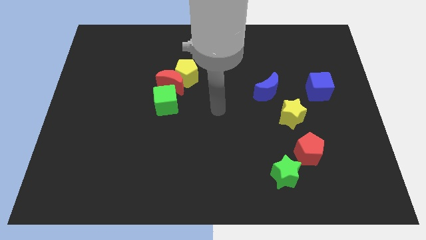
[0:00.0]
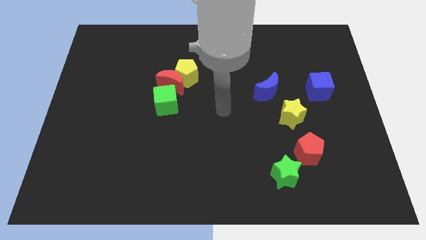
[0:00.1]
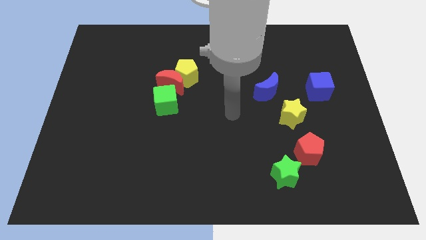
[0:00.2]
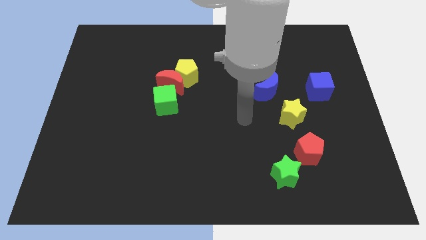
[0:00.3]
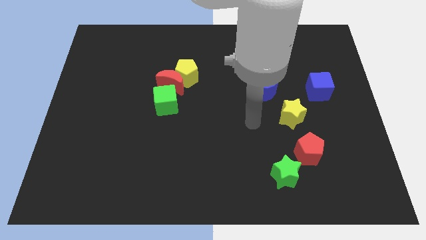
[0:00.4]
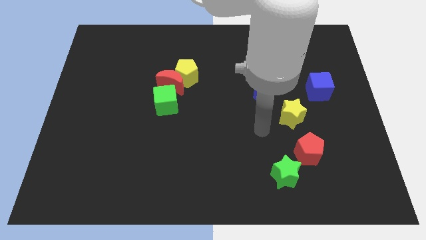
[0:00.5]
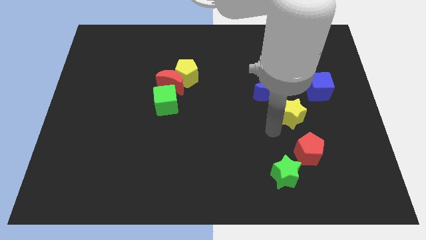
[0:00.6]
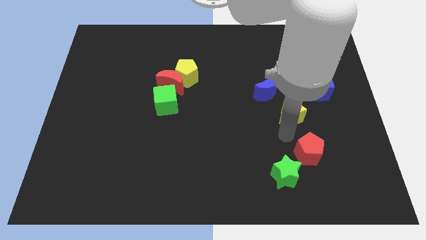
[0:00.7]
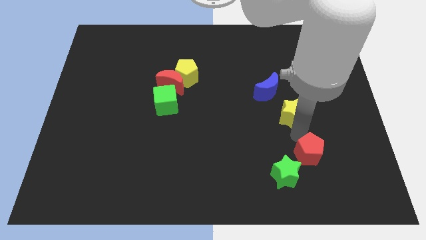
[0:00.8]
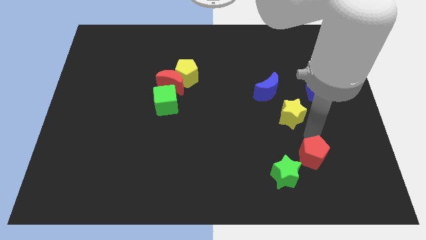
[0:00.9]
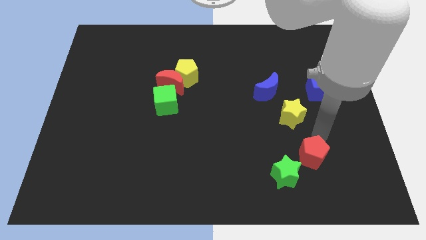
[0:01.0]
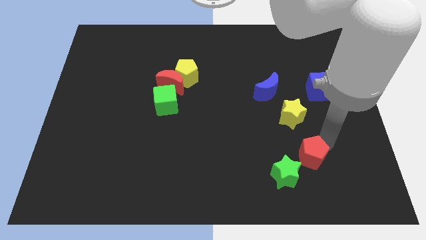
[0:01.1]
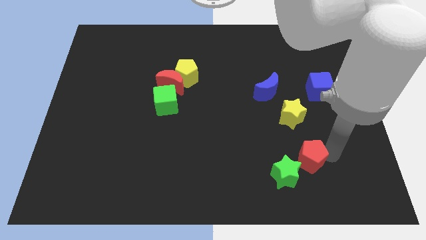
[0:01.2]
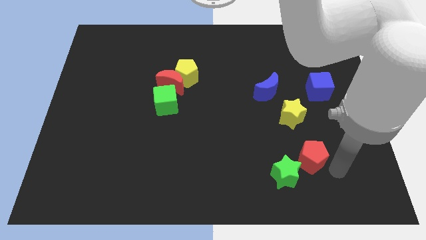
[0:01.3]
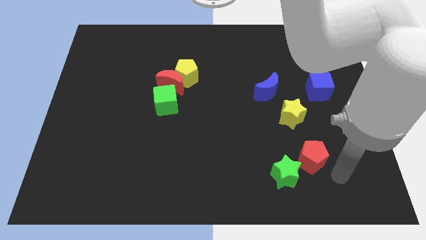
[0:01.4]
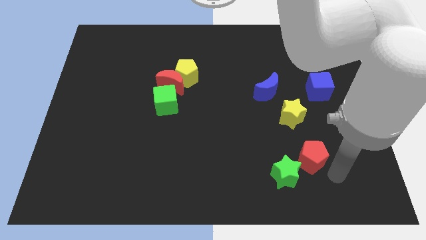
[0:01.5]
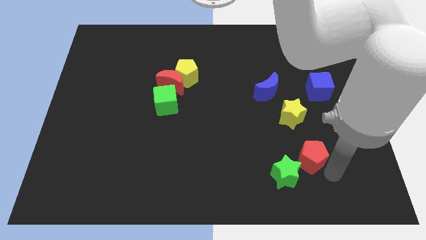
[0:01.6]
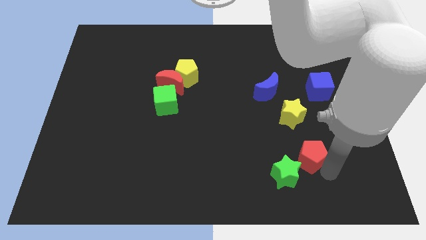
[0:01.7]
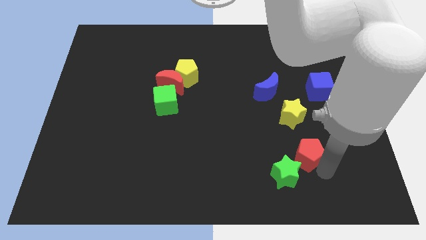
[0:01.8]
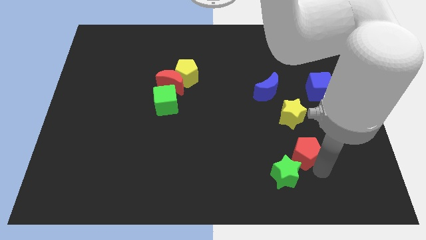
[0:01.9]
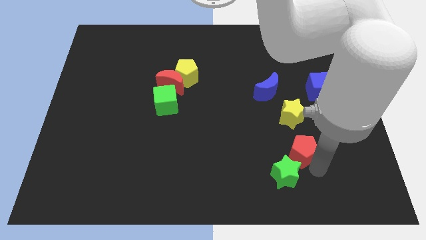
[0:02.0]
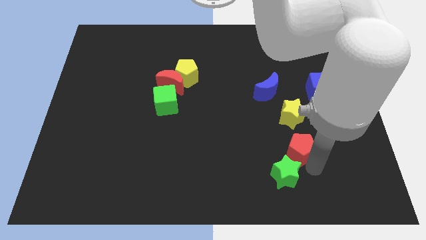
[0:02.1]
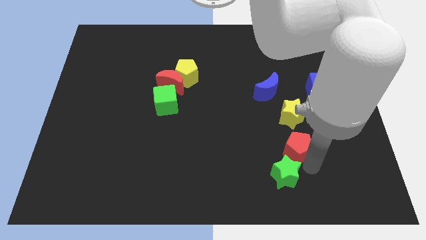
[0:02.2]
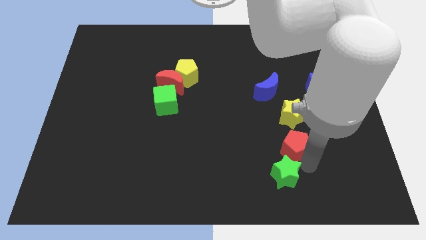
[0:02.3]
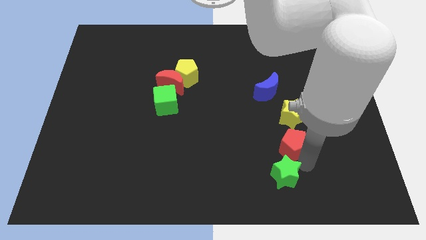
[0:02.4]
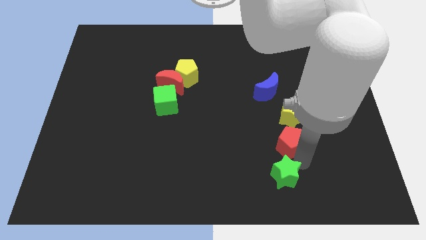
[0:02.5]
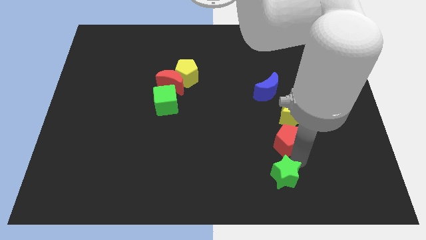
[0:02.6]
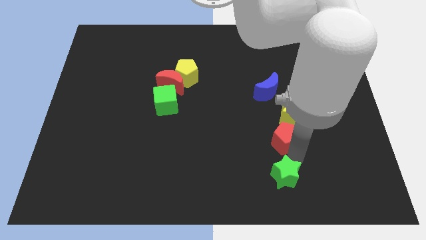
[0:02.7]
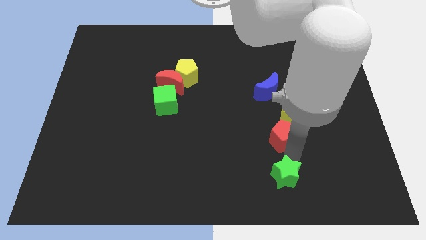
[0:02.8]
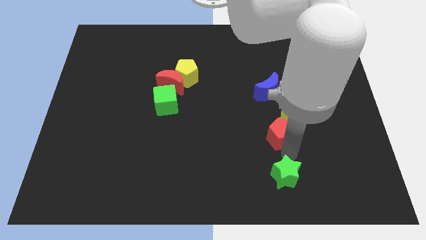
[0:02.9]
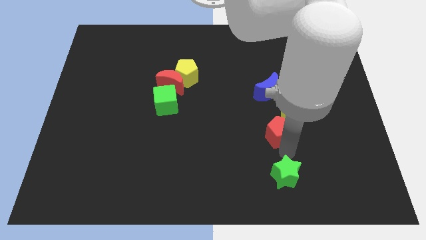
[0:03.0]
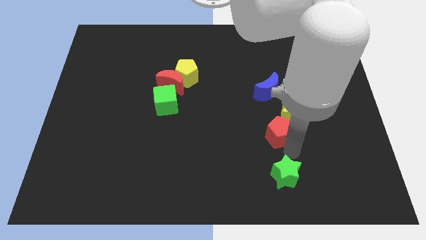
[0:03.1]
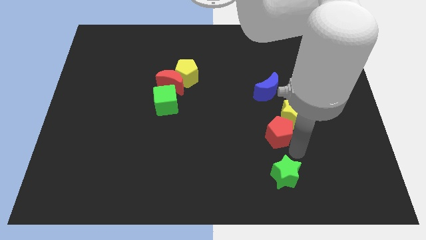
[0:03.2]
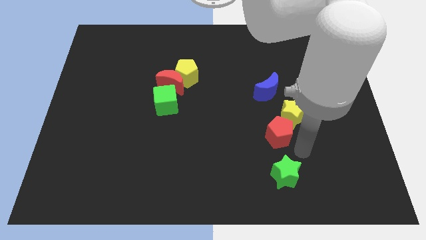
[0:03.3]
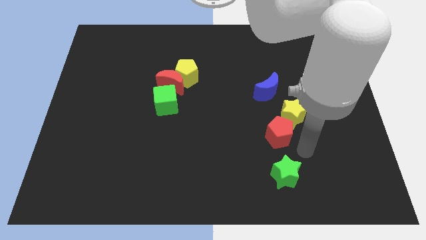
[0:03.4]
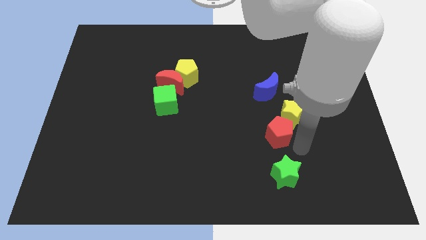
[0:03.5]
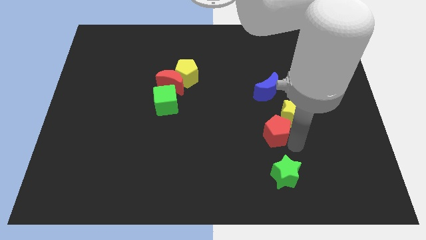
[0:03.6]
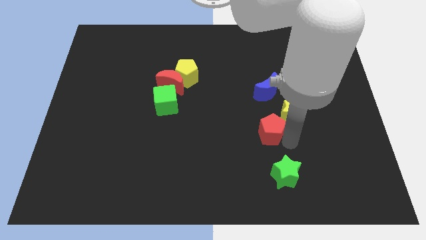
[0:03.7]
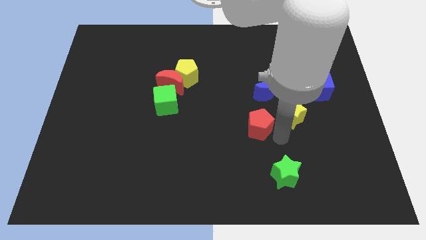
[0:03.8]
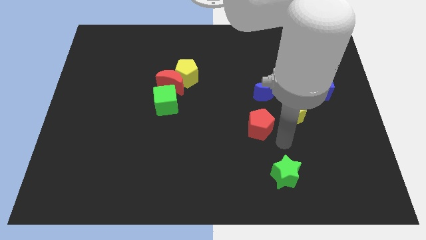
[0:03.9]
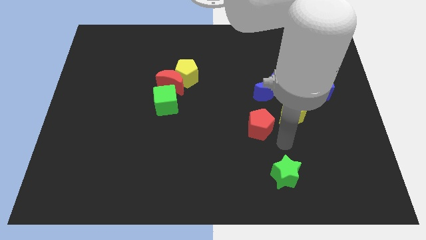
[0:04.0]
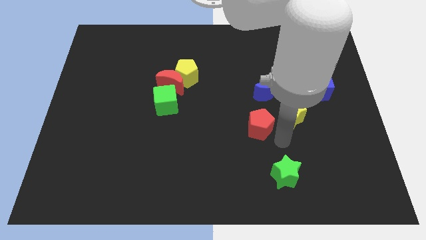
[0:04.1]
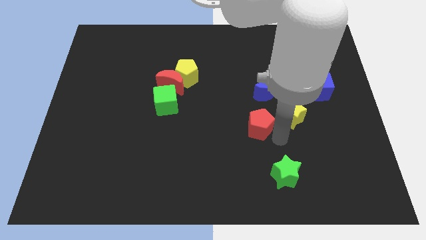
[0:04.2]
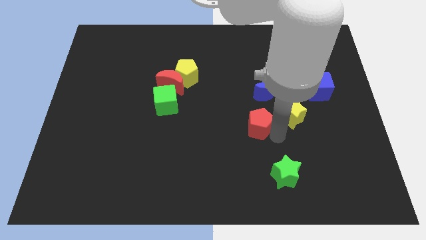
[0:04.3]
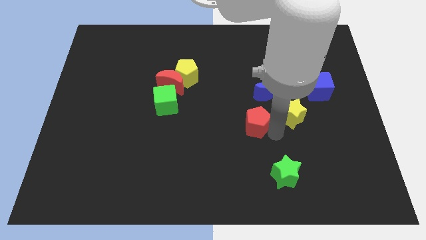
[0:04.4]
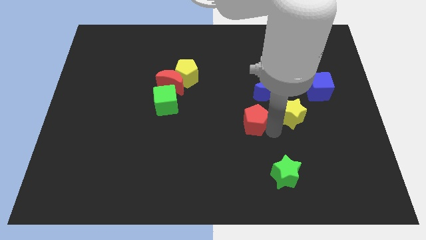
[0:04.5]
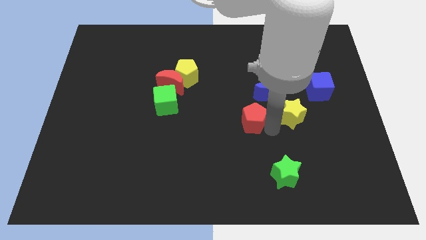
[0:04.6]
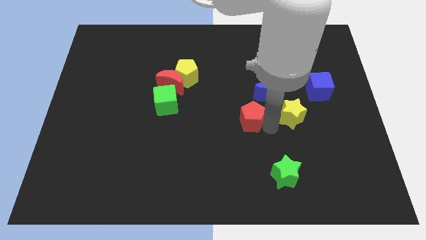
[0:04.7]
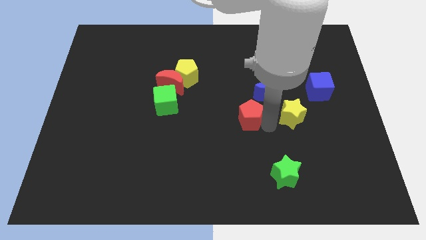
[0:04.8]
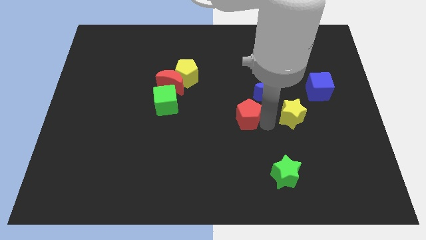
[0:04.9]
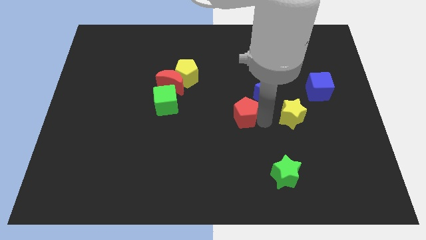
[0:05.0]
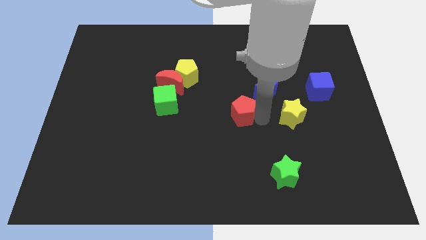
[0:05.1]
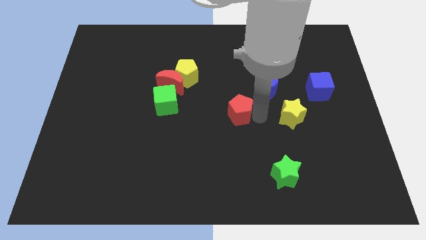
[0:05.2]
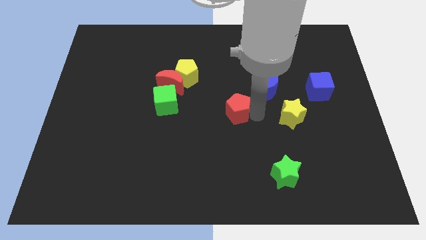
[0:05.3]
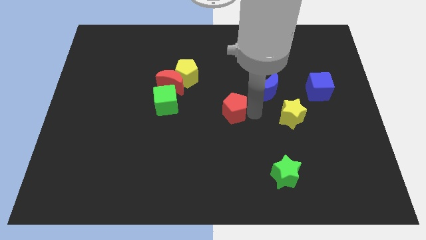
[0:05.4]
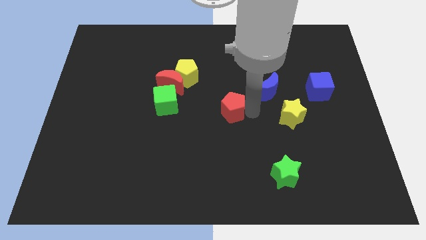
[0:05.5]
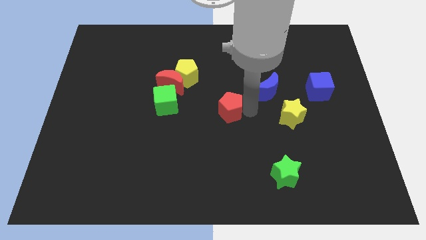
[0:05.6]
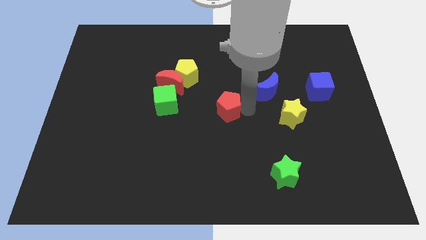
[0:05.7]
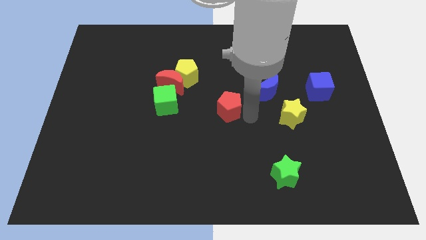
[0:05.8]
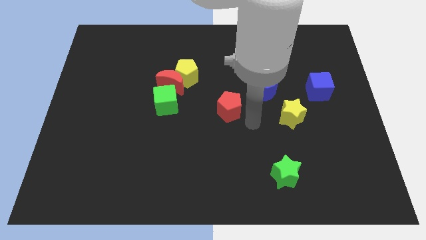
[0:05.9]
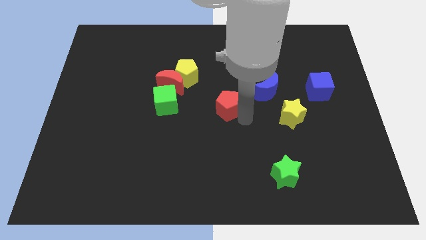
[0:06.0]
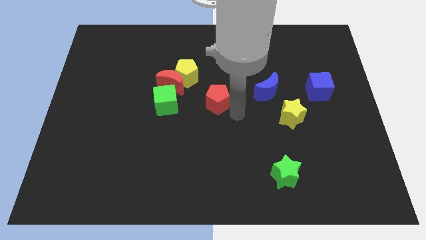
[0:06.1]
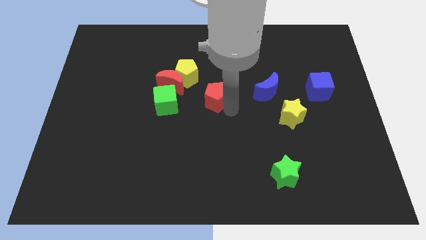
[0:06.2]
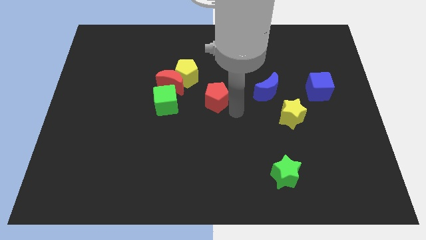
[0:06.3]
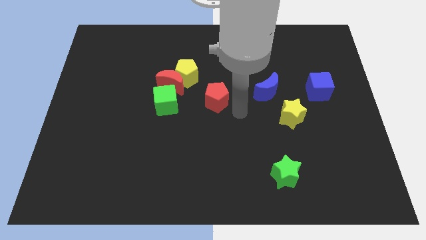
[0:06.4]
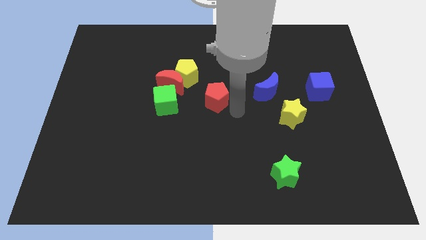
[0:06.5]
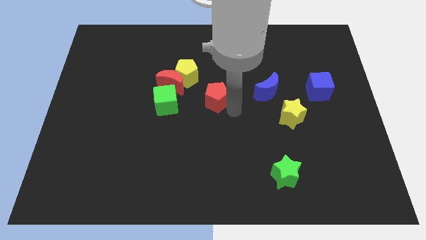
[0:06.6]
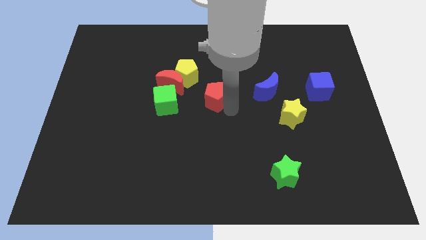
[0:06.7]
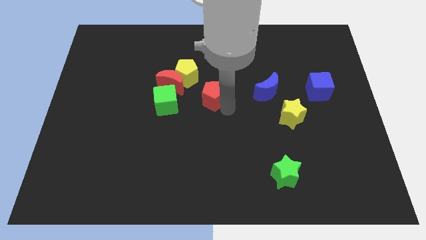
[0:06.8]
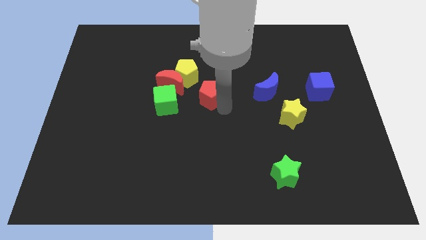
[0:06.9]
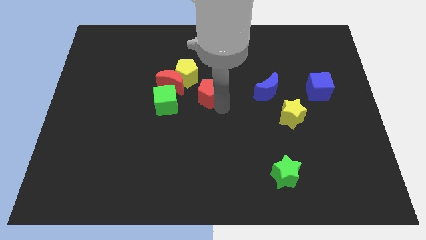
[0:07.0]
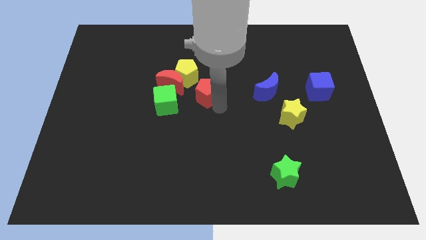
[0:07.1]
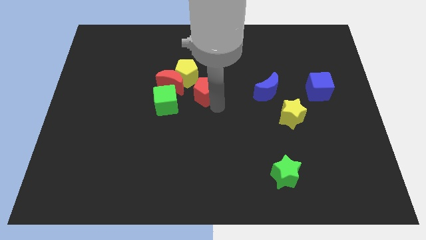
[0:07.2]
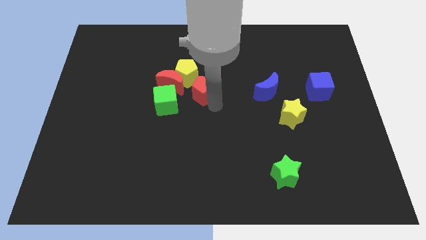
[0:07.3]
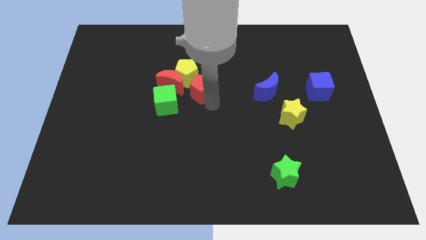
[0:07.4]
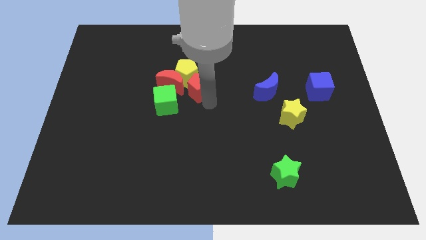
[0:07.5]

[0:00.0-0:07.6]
push the red pentagon towards the yellow pentagon
